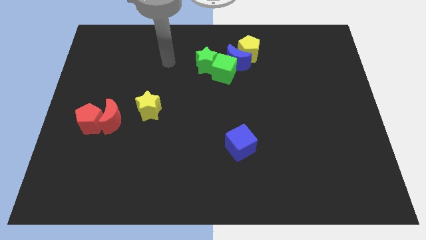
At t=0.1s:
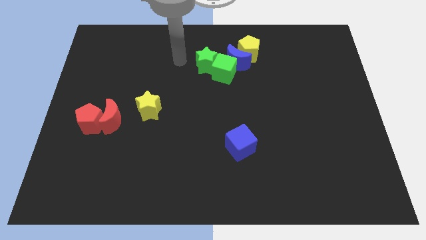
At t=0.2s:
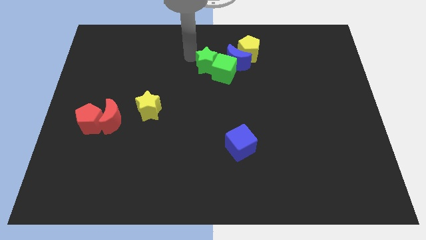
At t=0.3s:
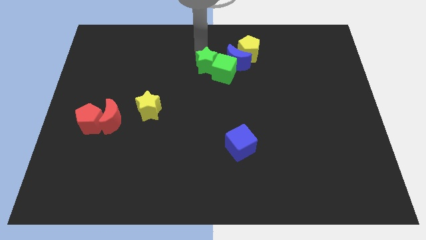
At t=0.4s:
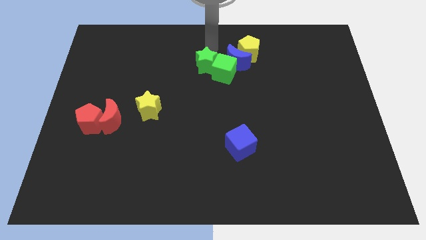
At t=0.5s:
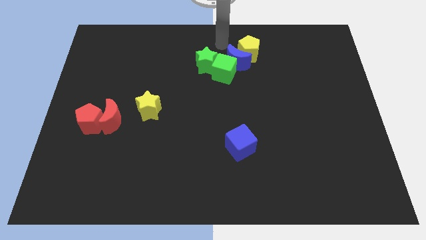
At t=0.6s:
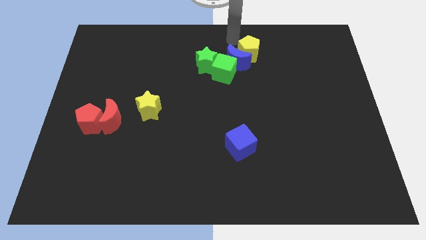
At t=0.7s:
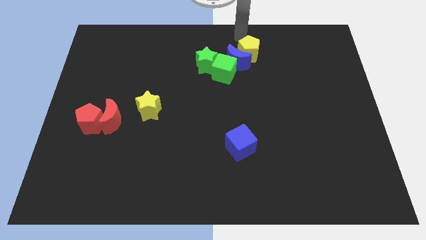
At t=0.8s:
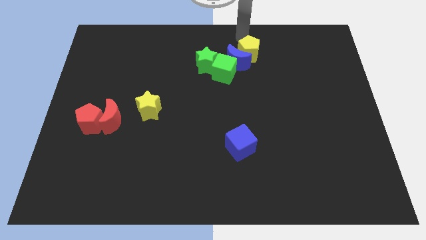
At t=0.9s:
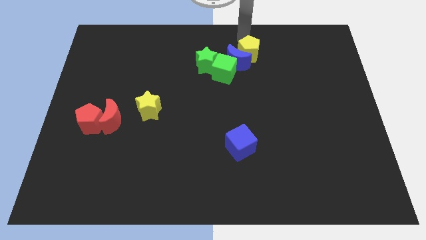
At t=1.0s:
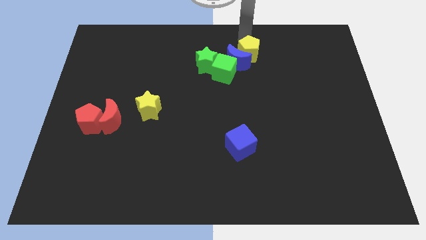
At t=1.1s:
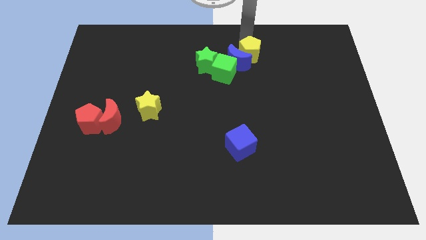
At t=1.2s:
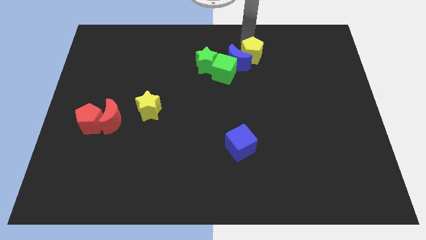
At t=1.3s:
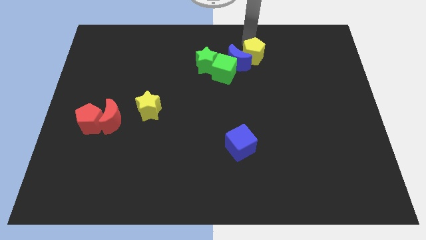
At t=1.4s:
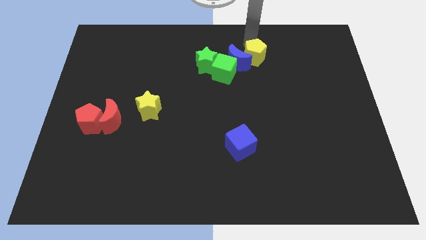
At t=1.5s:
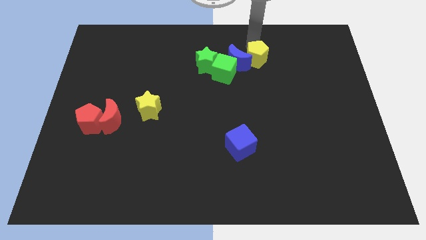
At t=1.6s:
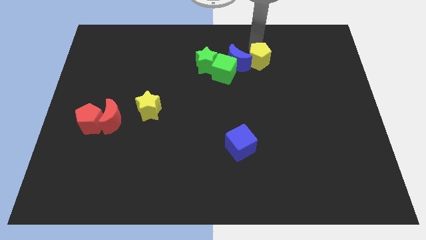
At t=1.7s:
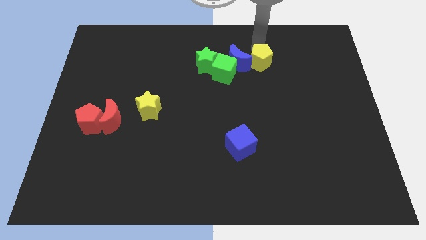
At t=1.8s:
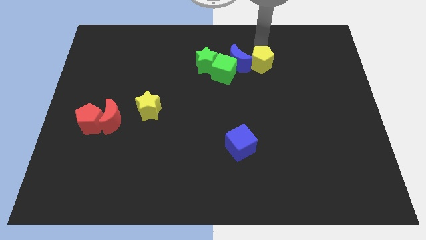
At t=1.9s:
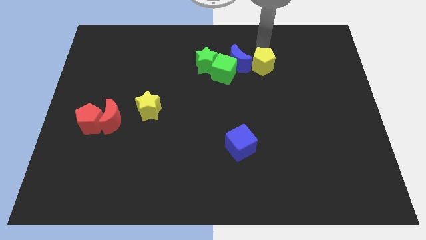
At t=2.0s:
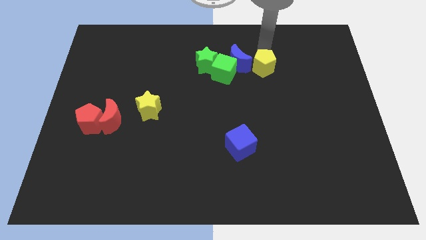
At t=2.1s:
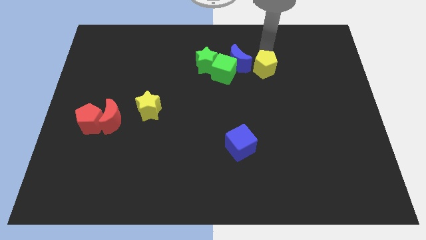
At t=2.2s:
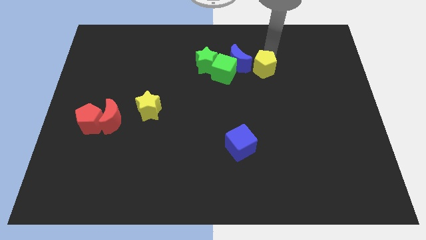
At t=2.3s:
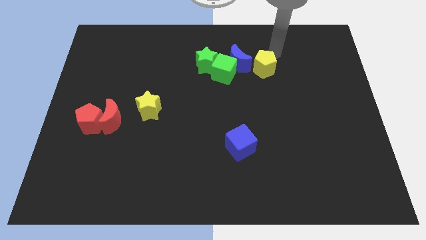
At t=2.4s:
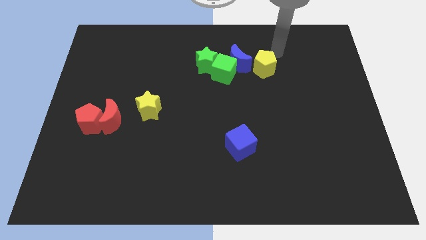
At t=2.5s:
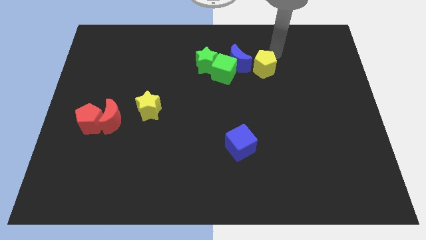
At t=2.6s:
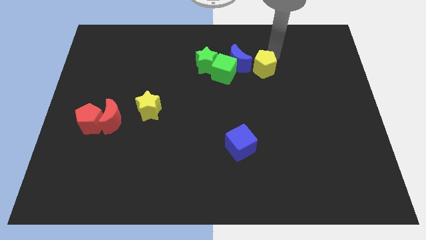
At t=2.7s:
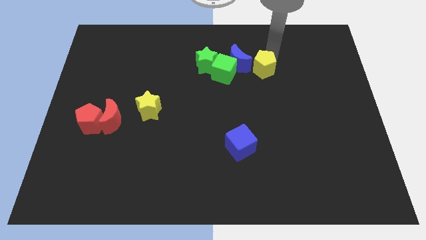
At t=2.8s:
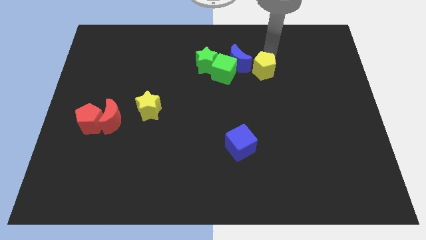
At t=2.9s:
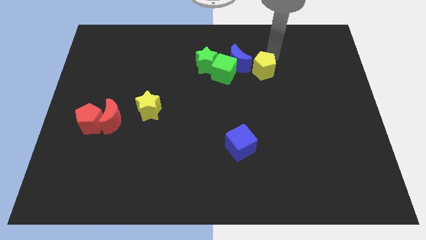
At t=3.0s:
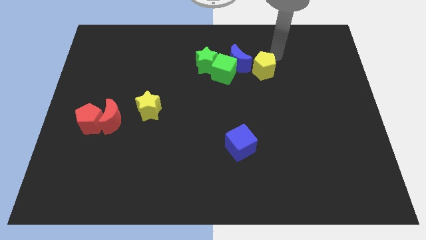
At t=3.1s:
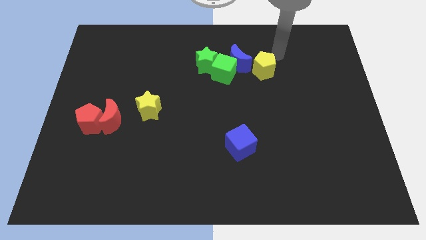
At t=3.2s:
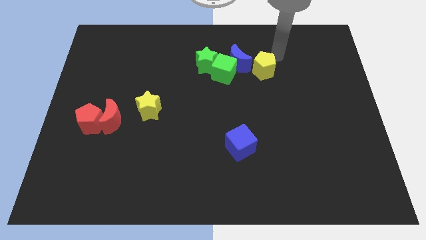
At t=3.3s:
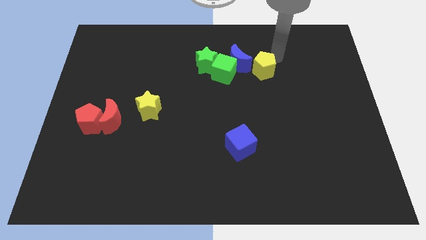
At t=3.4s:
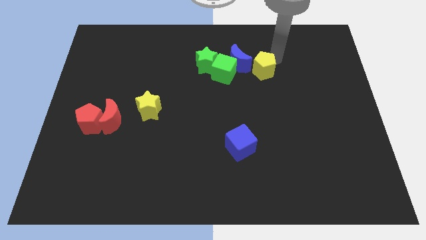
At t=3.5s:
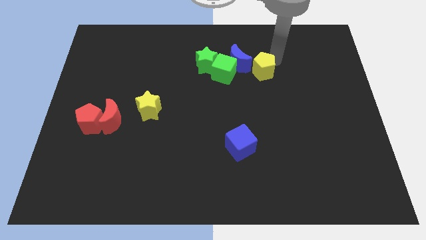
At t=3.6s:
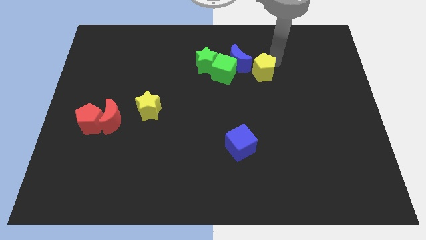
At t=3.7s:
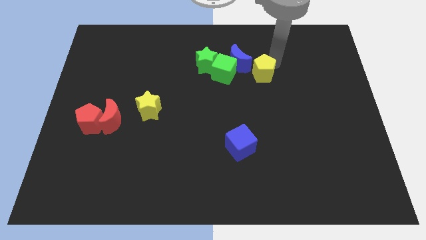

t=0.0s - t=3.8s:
push the yellow pentagon down slightly

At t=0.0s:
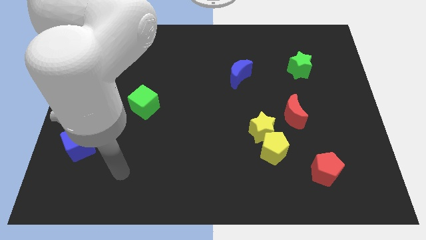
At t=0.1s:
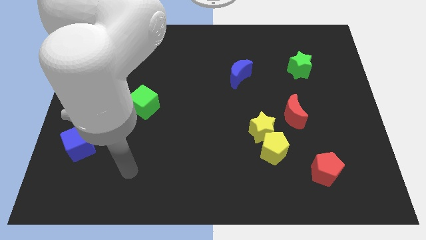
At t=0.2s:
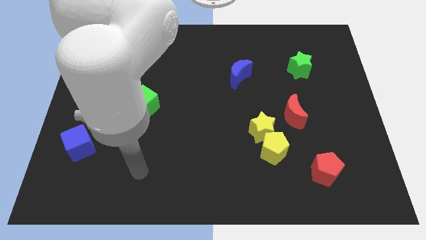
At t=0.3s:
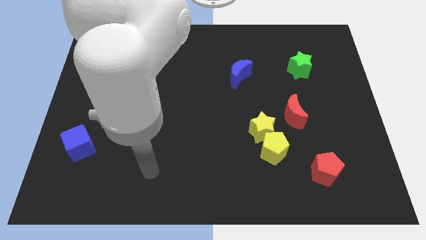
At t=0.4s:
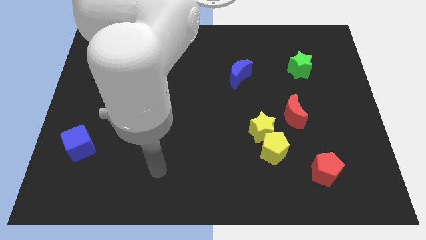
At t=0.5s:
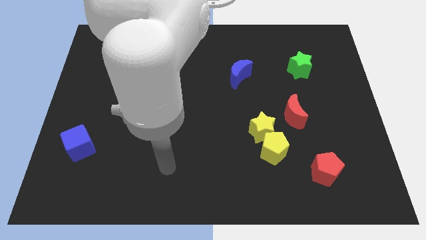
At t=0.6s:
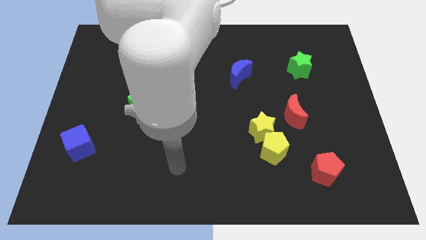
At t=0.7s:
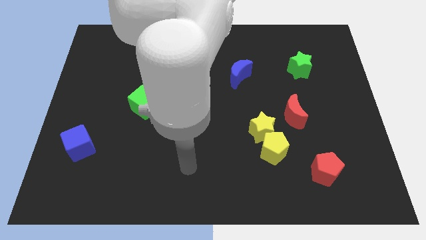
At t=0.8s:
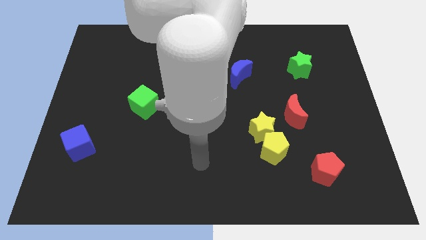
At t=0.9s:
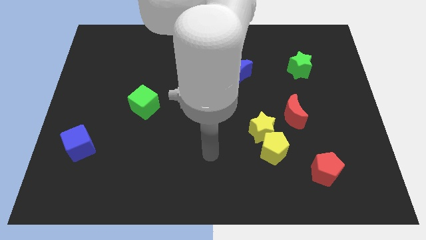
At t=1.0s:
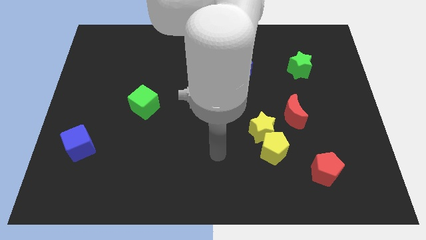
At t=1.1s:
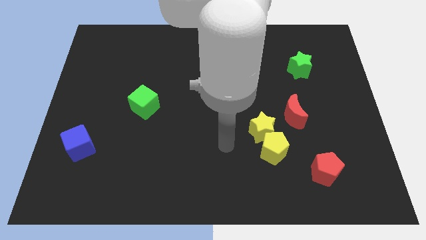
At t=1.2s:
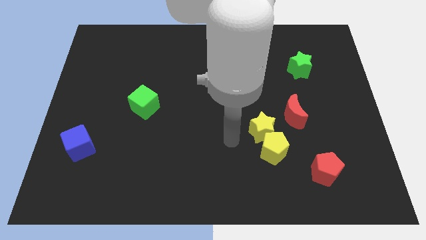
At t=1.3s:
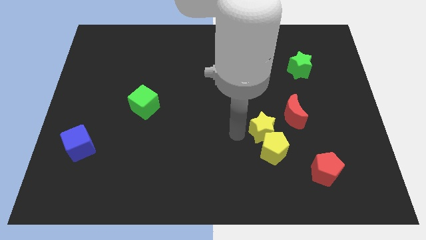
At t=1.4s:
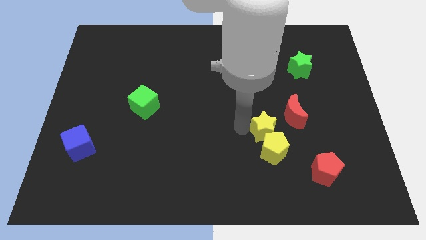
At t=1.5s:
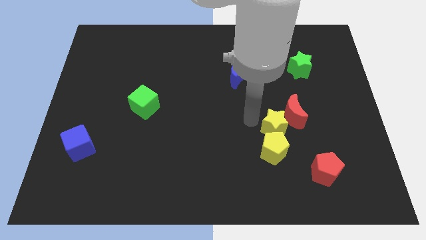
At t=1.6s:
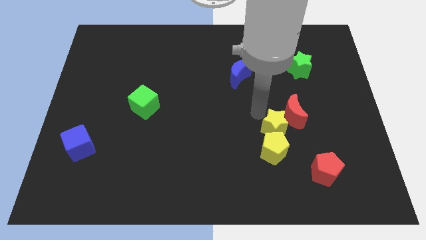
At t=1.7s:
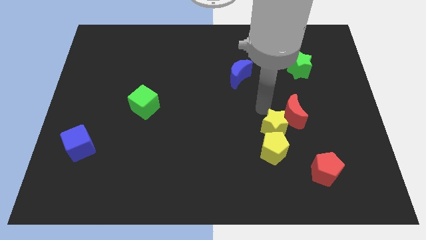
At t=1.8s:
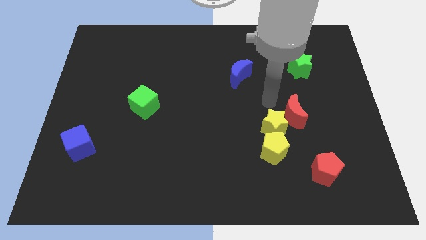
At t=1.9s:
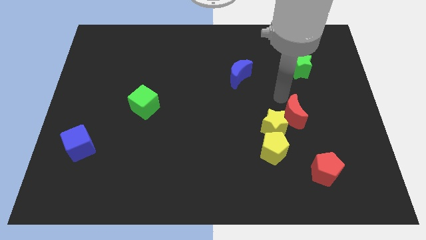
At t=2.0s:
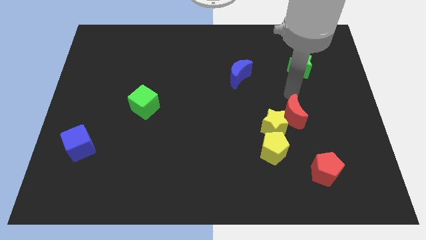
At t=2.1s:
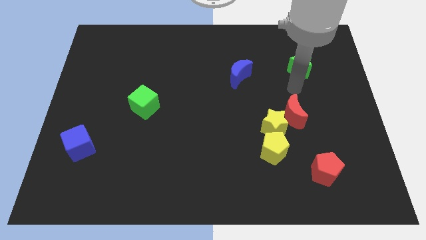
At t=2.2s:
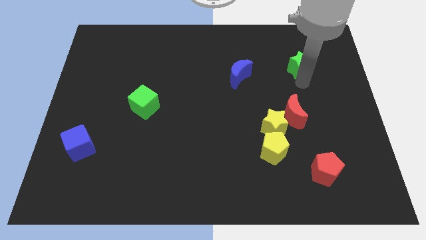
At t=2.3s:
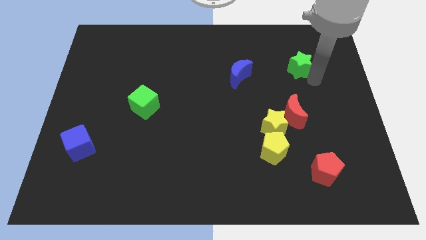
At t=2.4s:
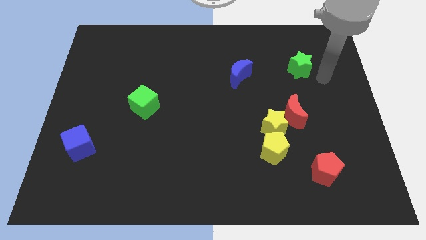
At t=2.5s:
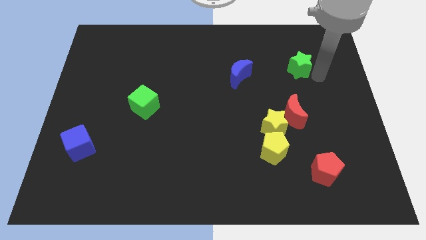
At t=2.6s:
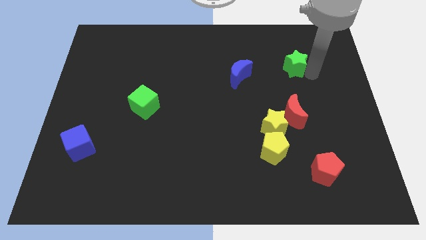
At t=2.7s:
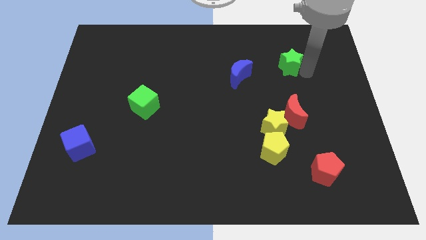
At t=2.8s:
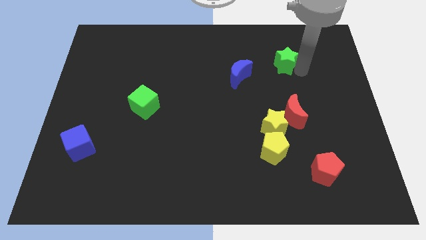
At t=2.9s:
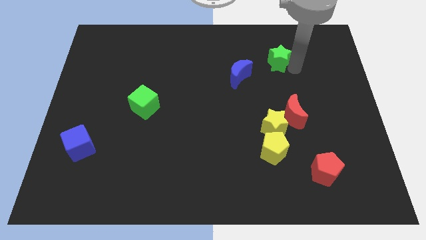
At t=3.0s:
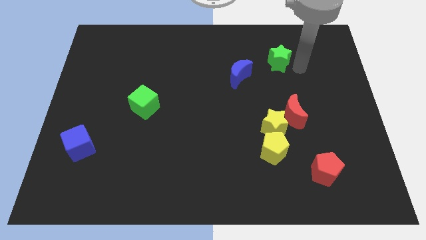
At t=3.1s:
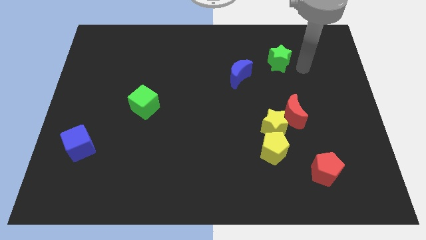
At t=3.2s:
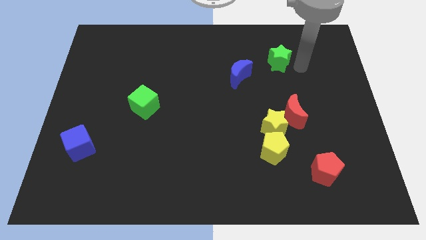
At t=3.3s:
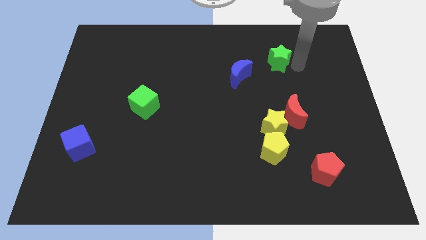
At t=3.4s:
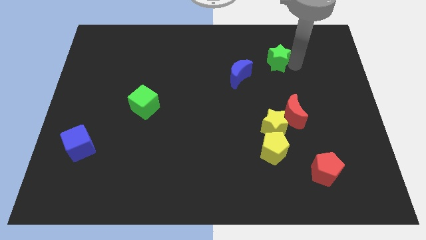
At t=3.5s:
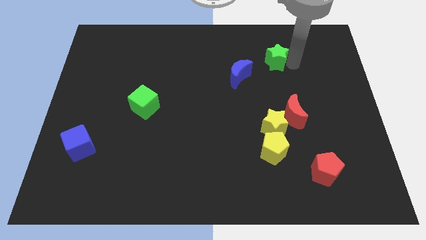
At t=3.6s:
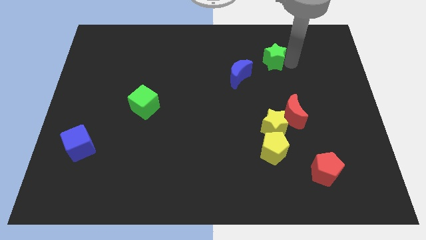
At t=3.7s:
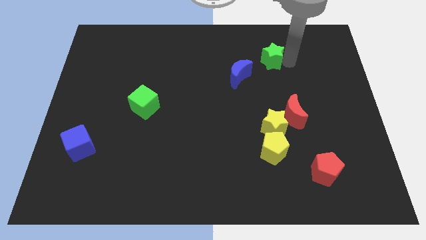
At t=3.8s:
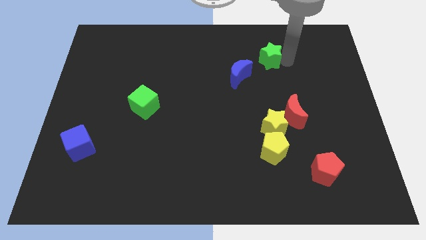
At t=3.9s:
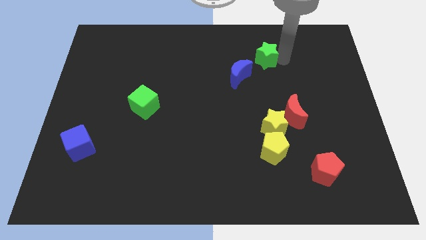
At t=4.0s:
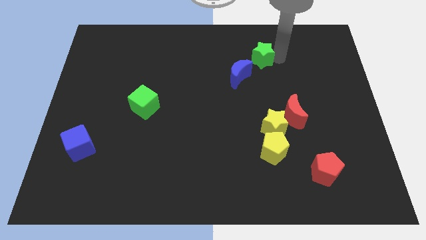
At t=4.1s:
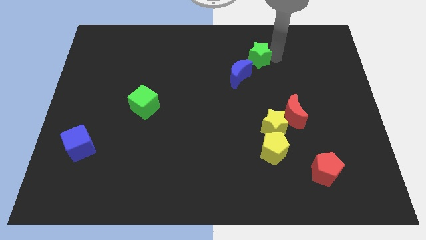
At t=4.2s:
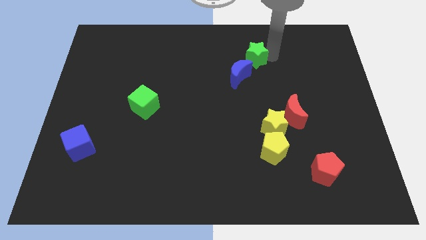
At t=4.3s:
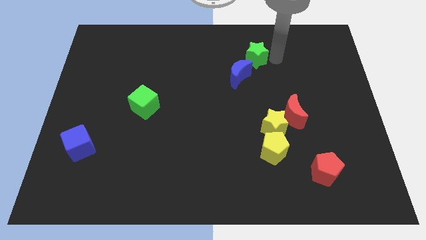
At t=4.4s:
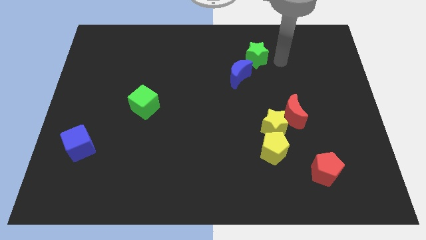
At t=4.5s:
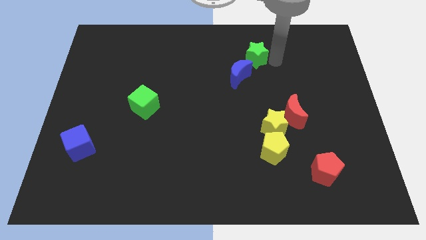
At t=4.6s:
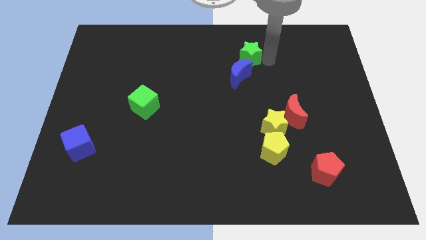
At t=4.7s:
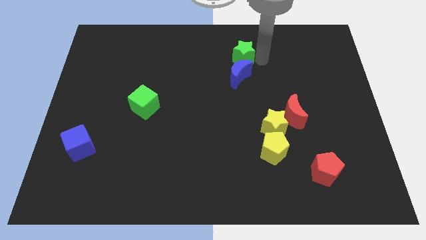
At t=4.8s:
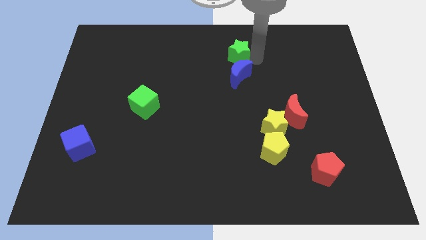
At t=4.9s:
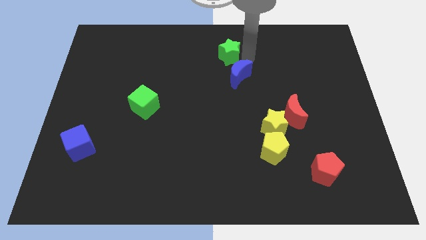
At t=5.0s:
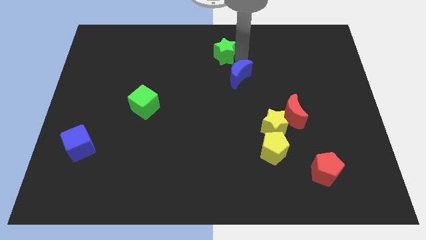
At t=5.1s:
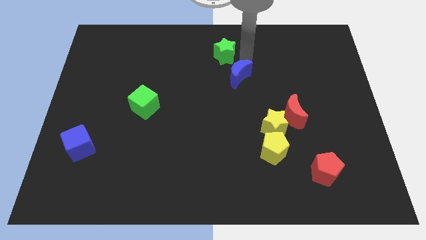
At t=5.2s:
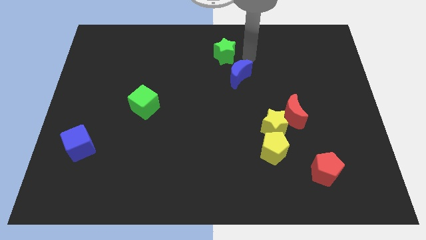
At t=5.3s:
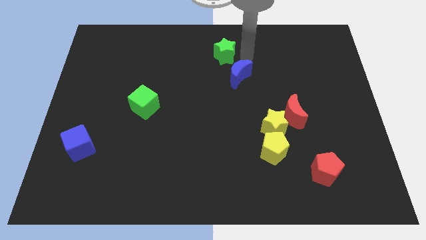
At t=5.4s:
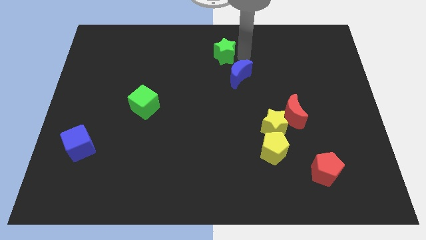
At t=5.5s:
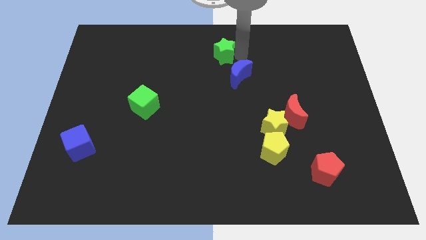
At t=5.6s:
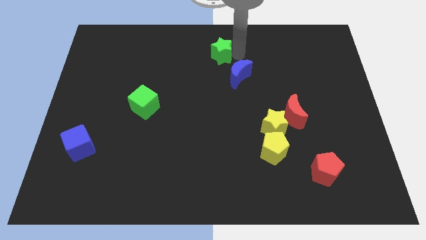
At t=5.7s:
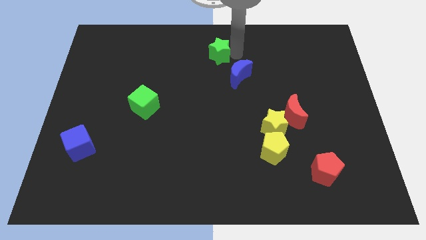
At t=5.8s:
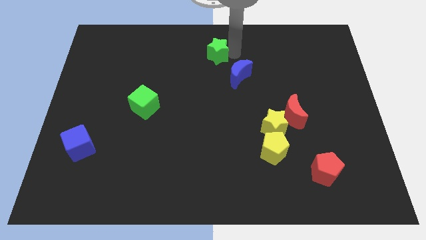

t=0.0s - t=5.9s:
move the green star to the left
